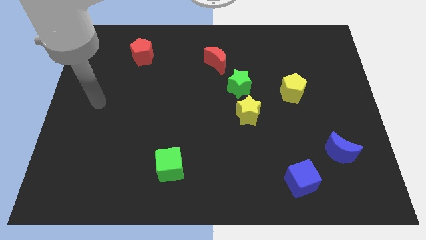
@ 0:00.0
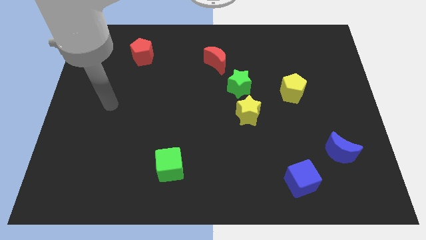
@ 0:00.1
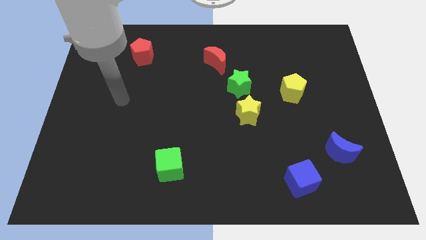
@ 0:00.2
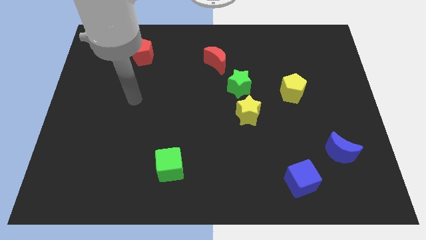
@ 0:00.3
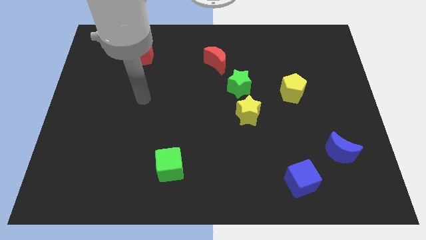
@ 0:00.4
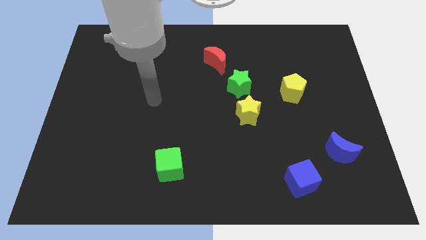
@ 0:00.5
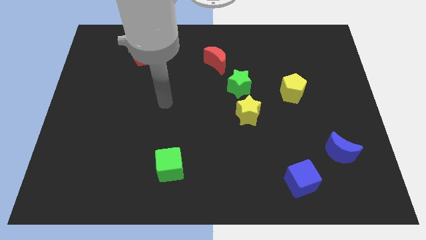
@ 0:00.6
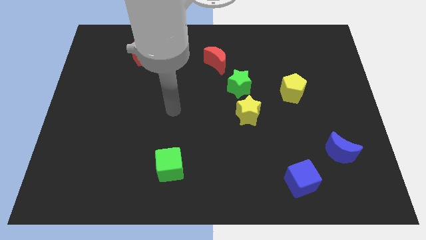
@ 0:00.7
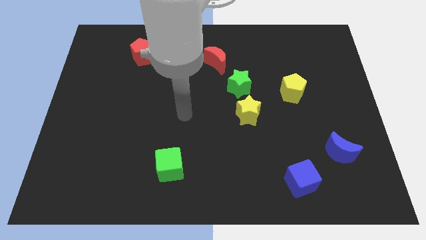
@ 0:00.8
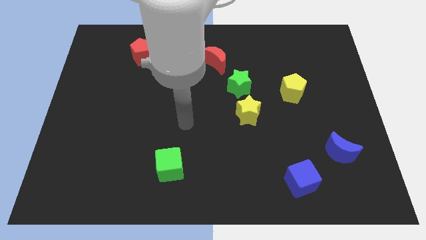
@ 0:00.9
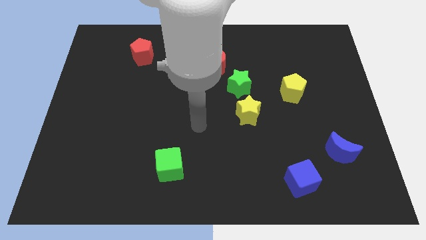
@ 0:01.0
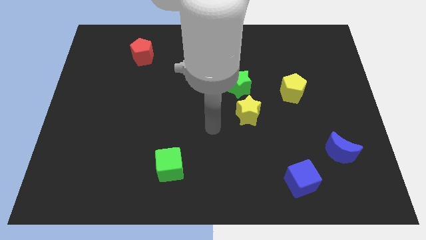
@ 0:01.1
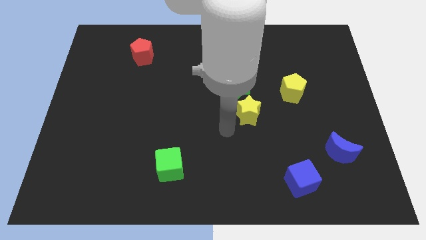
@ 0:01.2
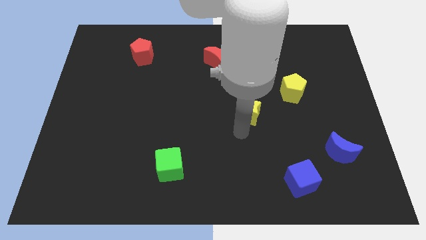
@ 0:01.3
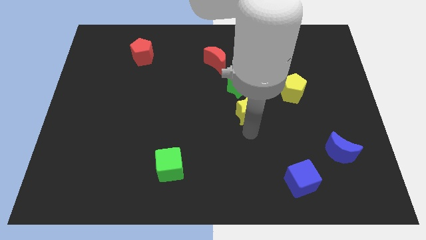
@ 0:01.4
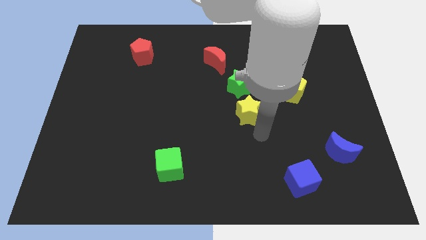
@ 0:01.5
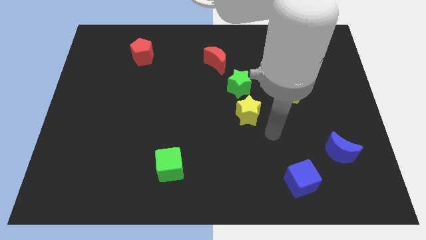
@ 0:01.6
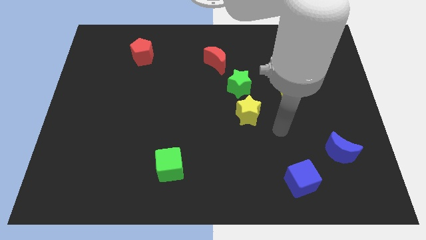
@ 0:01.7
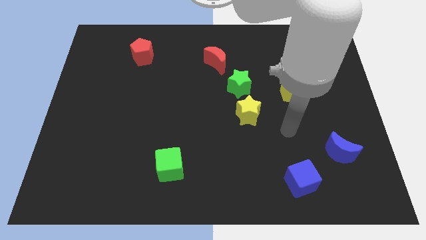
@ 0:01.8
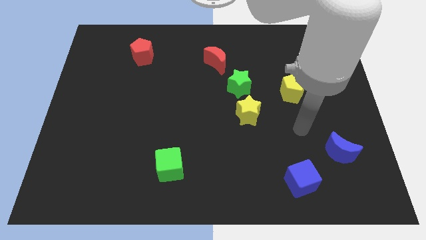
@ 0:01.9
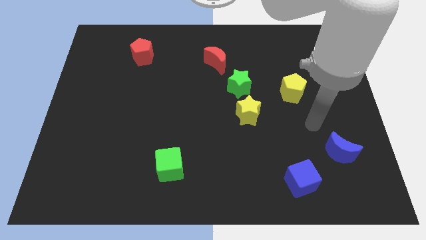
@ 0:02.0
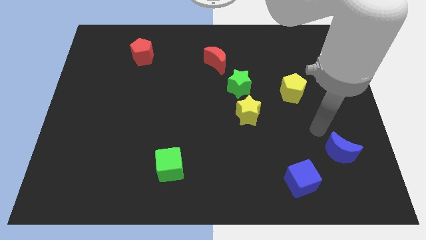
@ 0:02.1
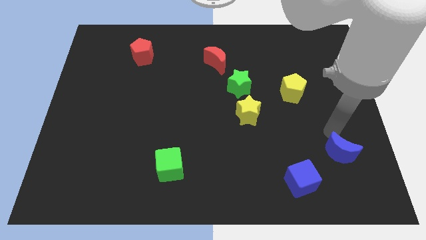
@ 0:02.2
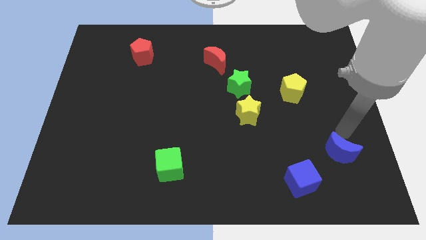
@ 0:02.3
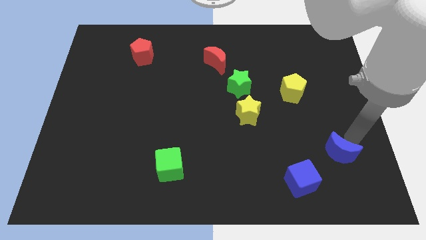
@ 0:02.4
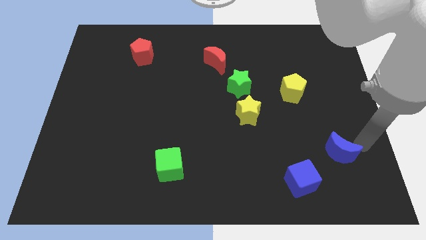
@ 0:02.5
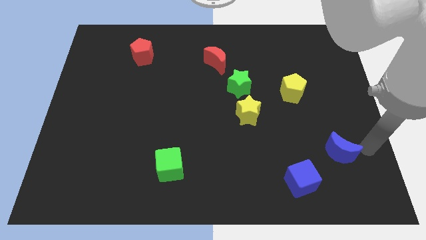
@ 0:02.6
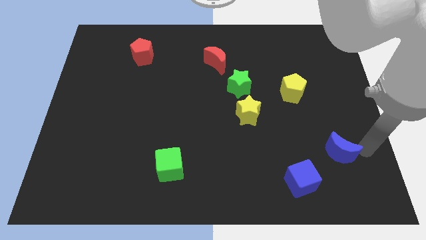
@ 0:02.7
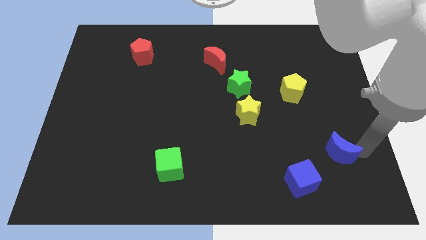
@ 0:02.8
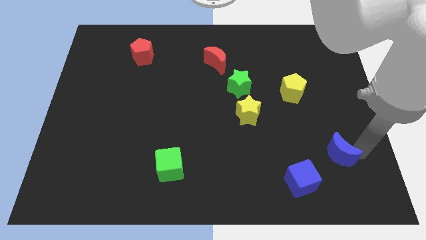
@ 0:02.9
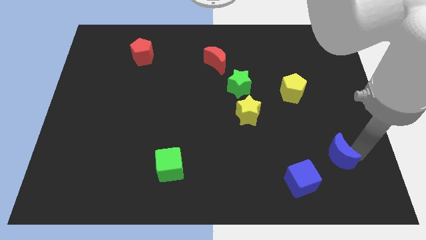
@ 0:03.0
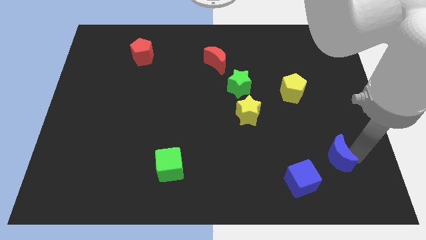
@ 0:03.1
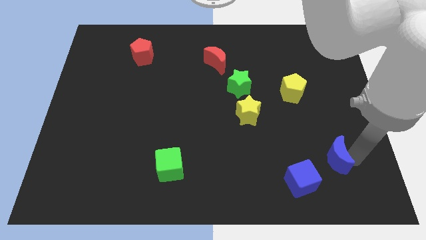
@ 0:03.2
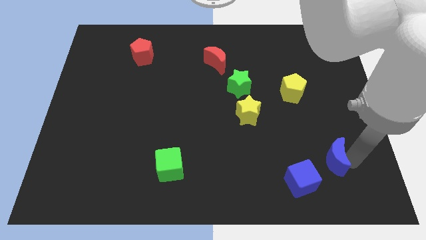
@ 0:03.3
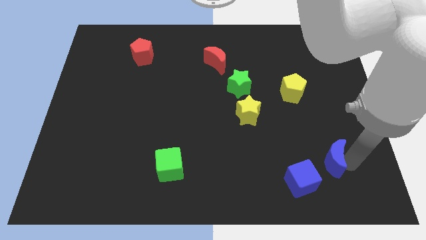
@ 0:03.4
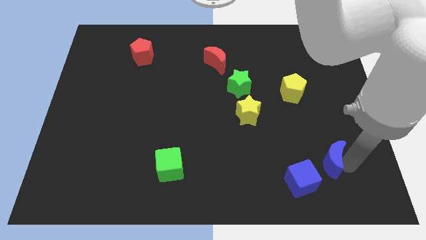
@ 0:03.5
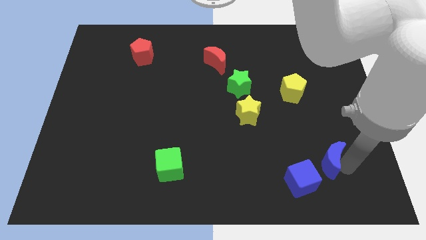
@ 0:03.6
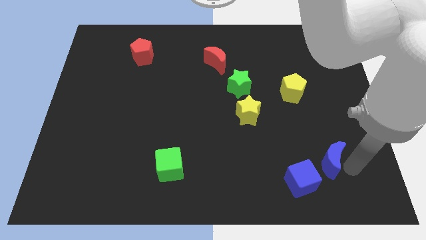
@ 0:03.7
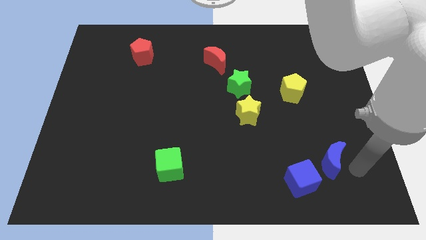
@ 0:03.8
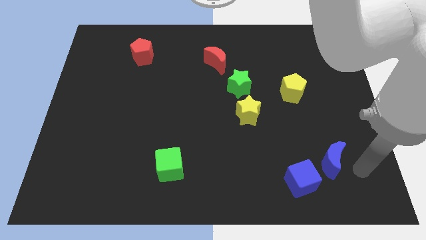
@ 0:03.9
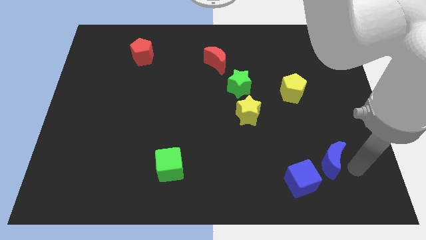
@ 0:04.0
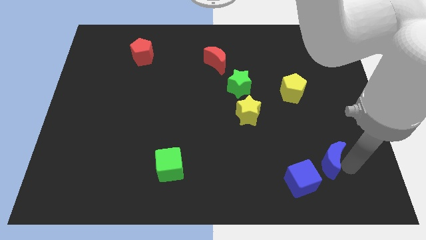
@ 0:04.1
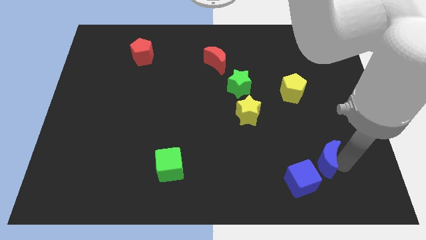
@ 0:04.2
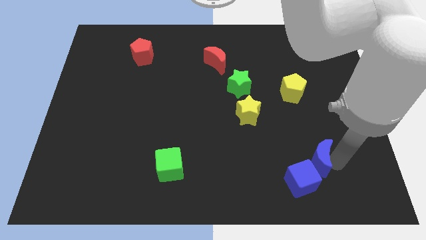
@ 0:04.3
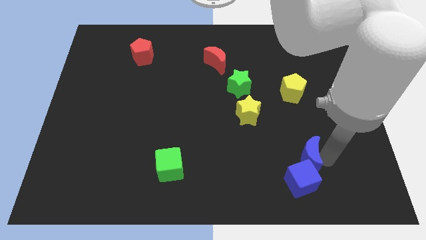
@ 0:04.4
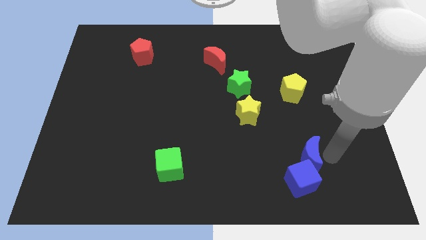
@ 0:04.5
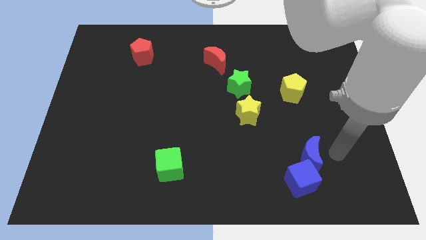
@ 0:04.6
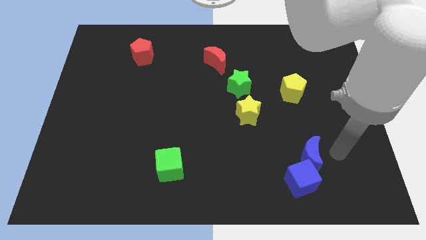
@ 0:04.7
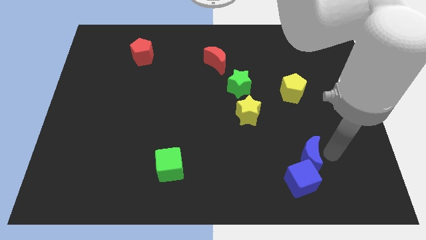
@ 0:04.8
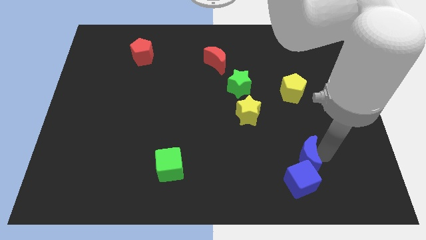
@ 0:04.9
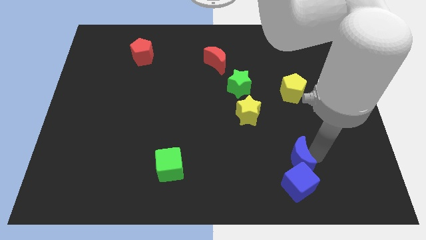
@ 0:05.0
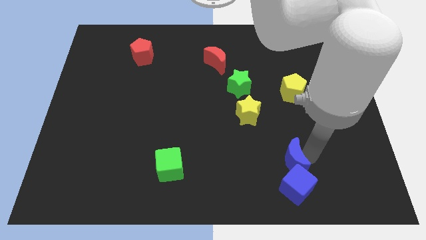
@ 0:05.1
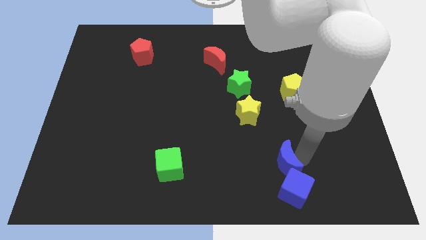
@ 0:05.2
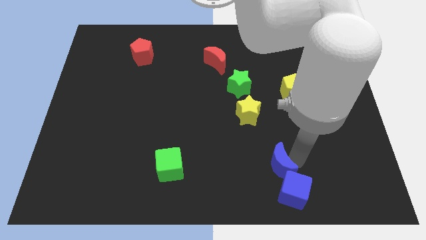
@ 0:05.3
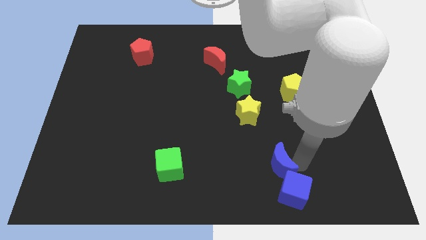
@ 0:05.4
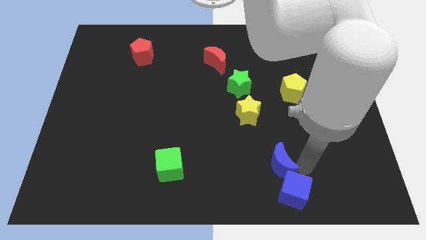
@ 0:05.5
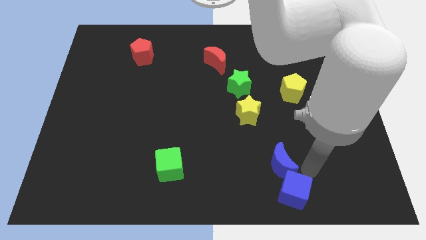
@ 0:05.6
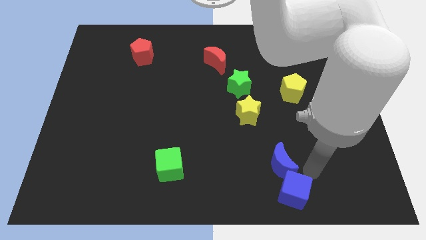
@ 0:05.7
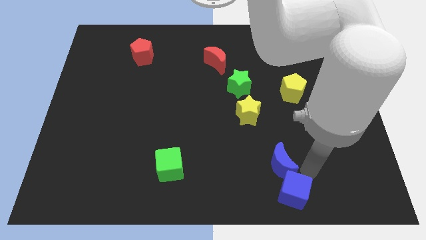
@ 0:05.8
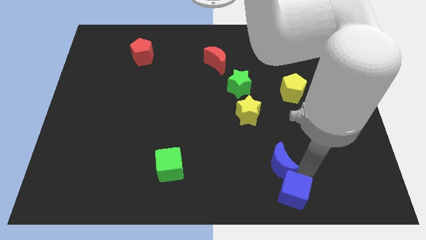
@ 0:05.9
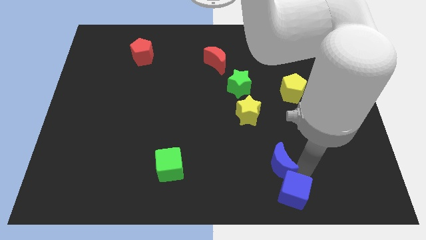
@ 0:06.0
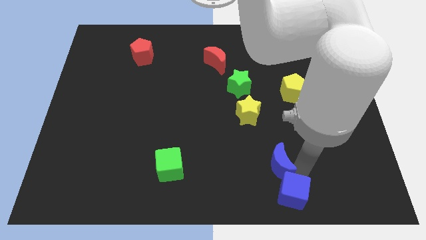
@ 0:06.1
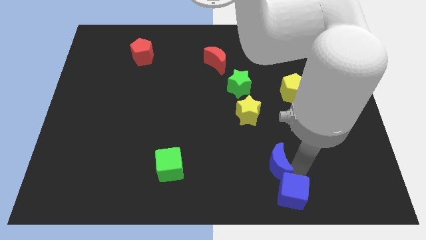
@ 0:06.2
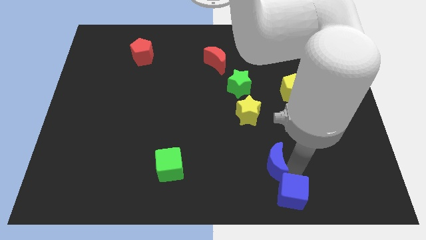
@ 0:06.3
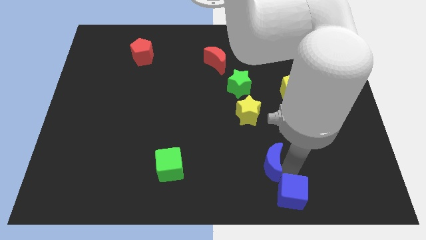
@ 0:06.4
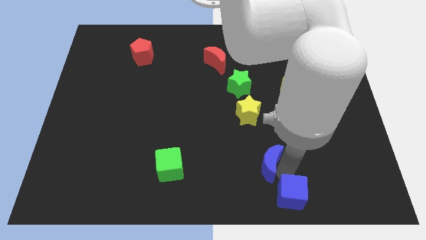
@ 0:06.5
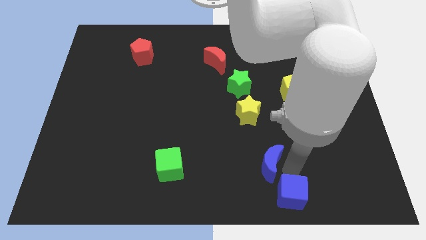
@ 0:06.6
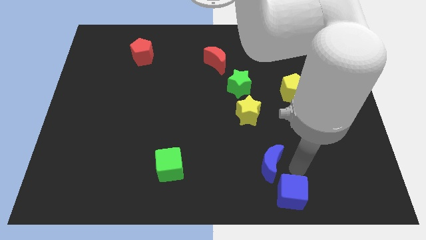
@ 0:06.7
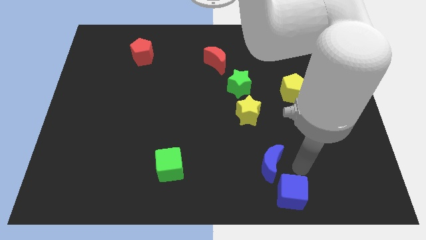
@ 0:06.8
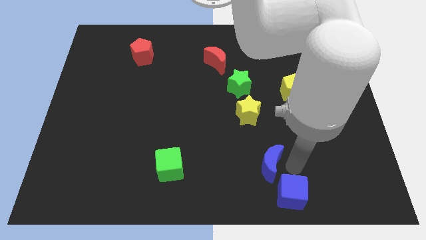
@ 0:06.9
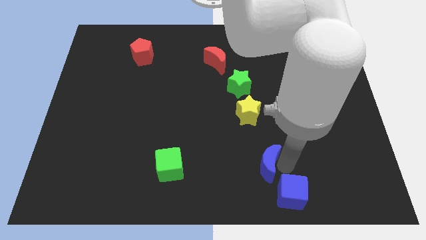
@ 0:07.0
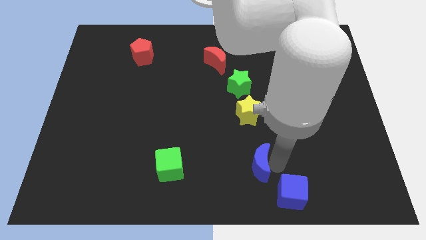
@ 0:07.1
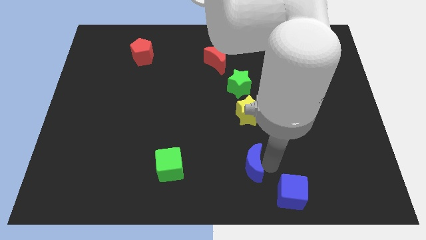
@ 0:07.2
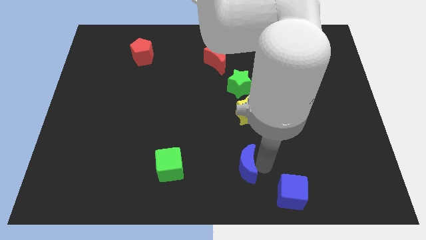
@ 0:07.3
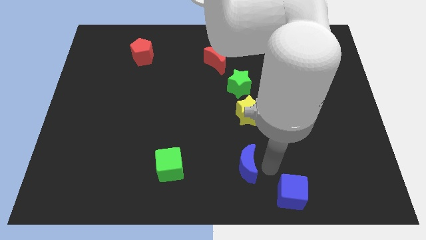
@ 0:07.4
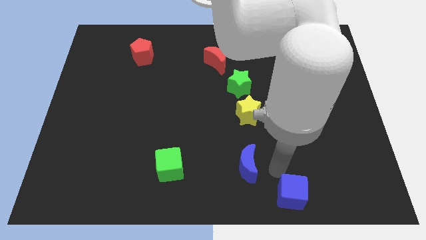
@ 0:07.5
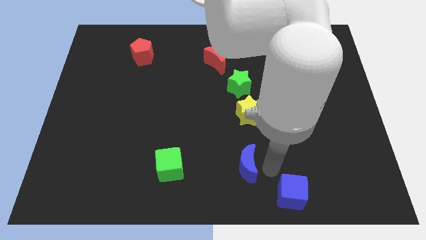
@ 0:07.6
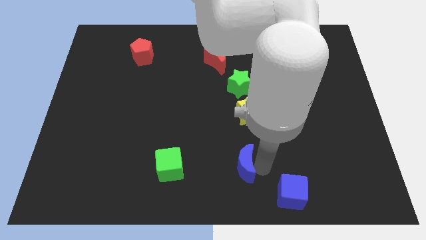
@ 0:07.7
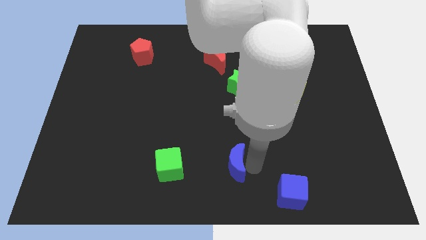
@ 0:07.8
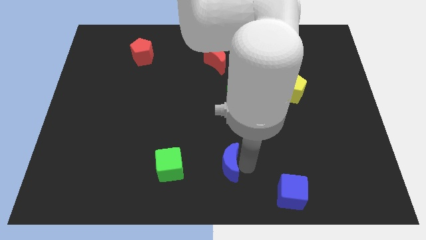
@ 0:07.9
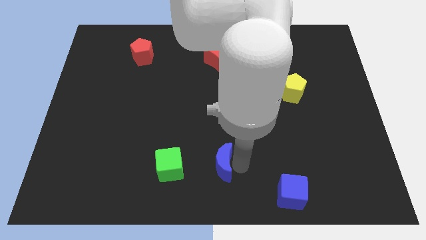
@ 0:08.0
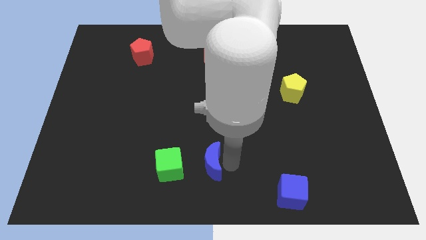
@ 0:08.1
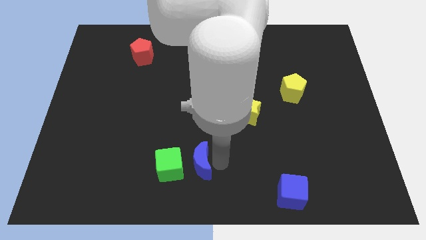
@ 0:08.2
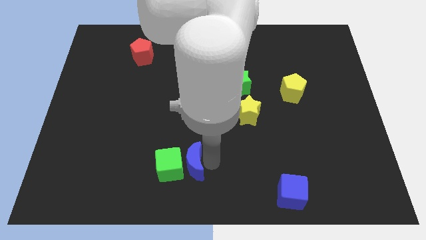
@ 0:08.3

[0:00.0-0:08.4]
push the blue moon close to the green cube
